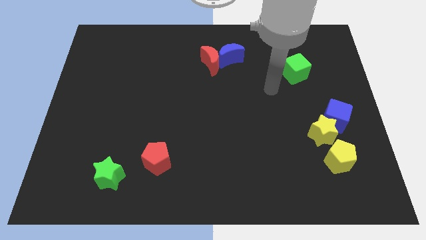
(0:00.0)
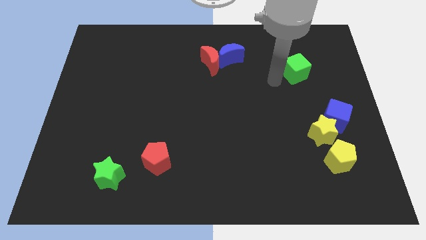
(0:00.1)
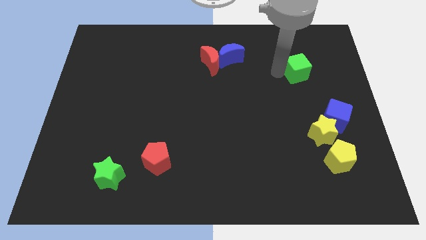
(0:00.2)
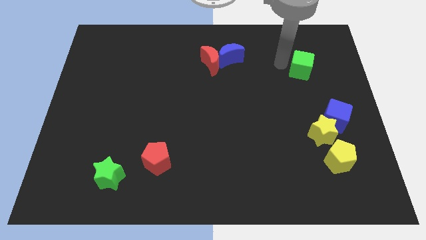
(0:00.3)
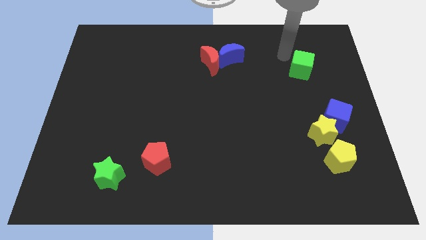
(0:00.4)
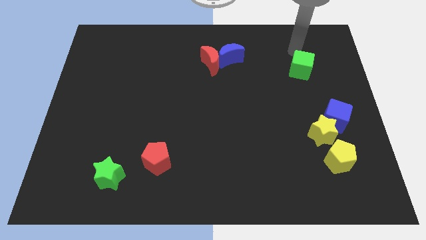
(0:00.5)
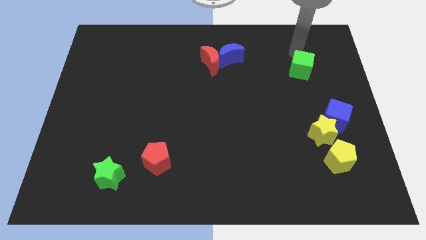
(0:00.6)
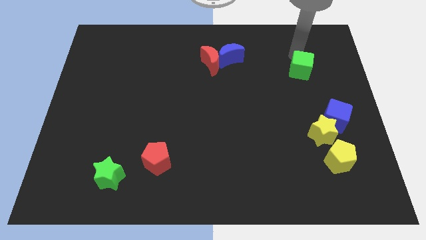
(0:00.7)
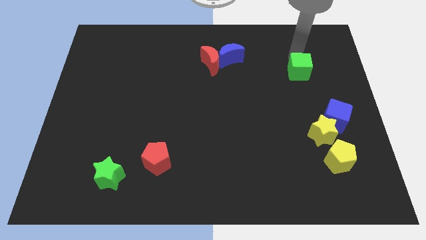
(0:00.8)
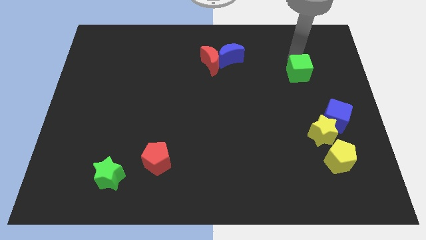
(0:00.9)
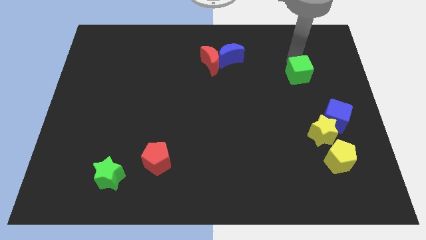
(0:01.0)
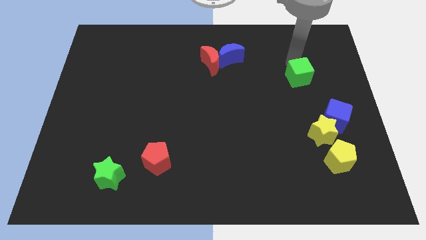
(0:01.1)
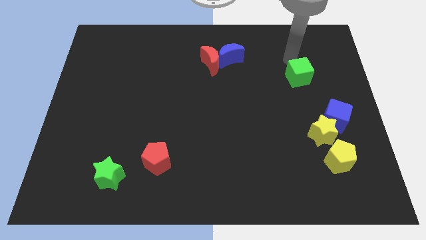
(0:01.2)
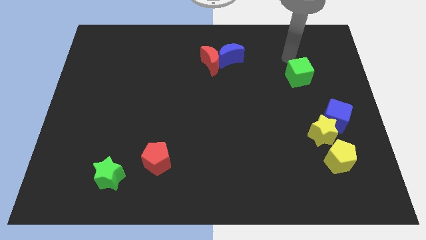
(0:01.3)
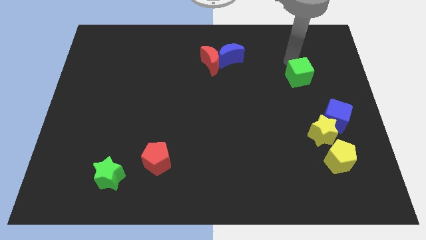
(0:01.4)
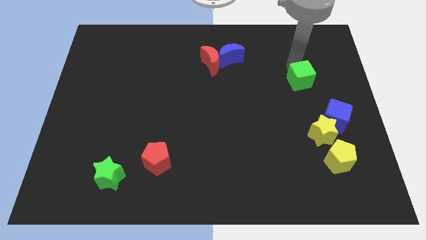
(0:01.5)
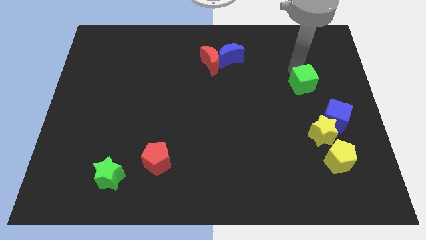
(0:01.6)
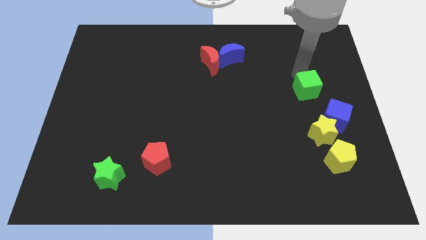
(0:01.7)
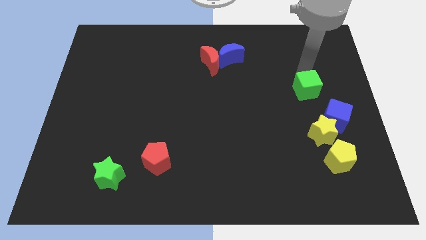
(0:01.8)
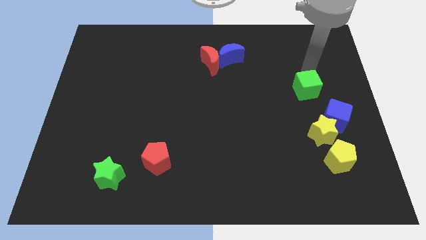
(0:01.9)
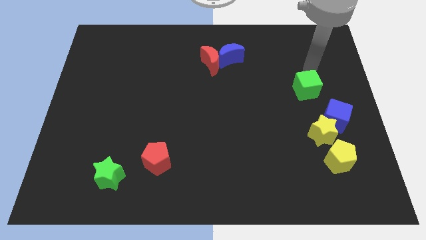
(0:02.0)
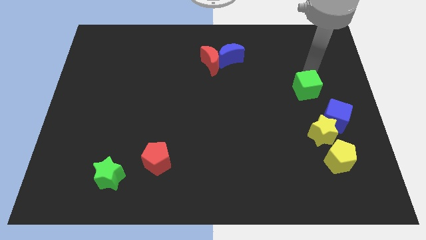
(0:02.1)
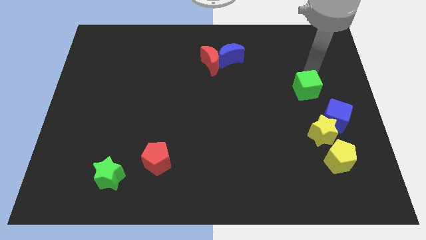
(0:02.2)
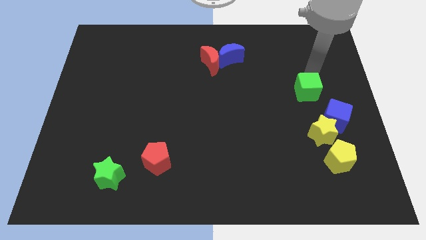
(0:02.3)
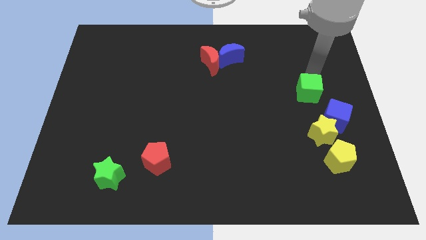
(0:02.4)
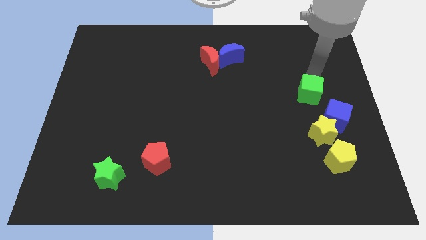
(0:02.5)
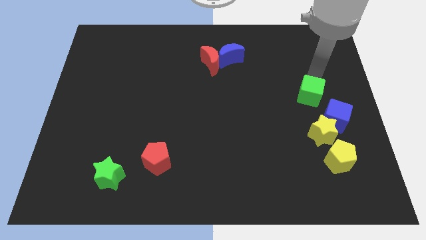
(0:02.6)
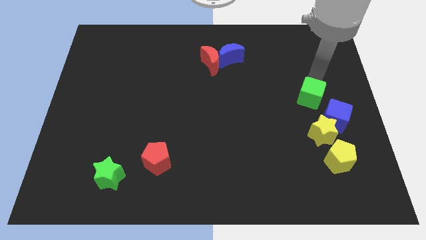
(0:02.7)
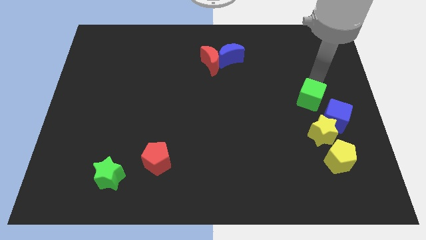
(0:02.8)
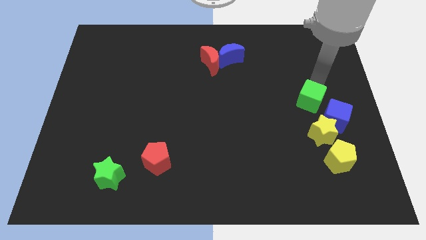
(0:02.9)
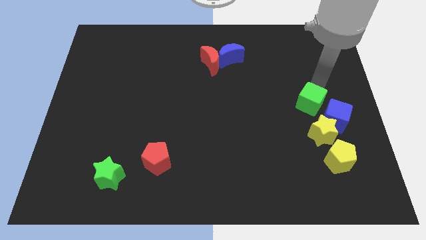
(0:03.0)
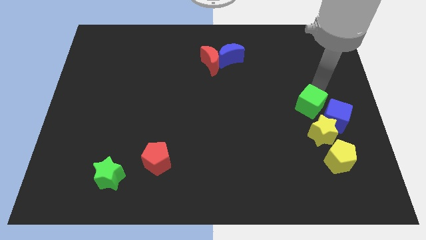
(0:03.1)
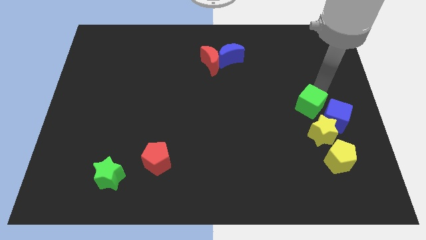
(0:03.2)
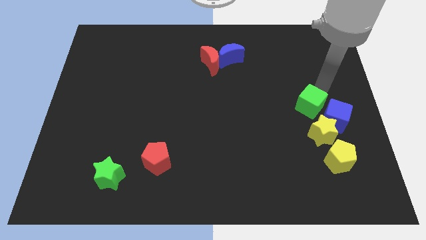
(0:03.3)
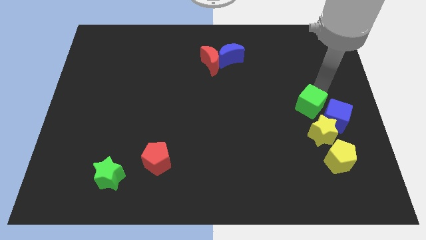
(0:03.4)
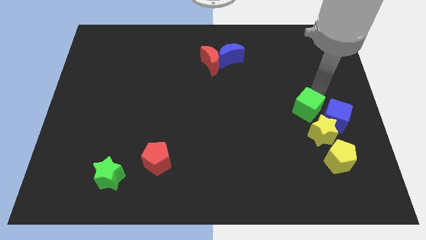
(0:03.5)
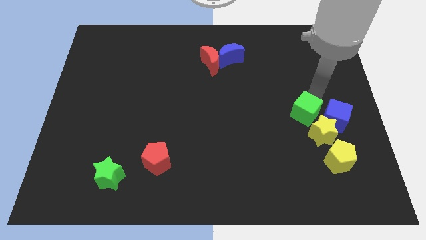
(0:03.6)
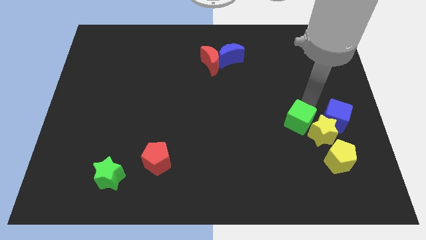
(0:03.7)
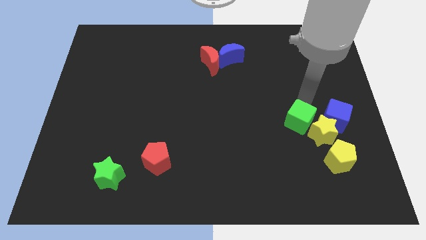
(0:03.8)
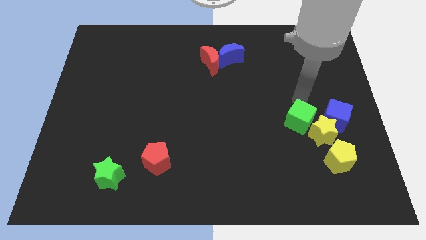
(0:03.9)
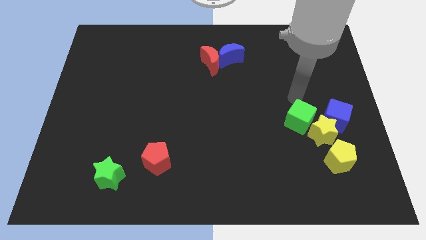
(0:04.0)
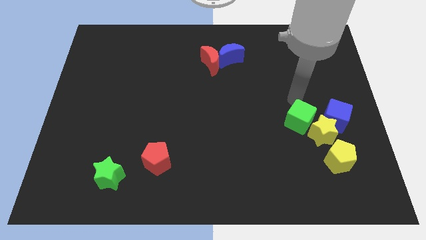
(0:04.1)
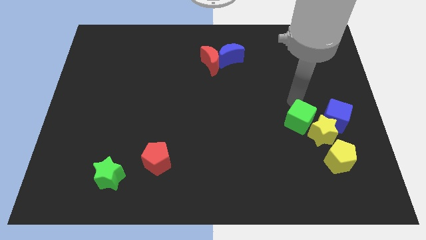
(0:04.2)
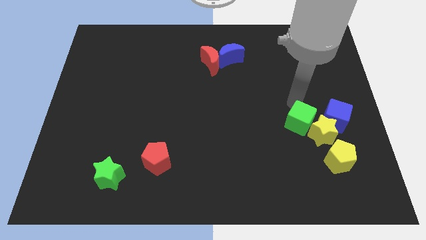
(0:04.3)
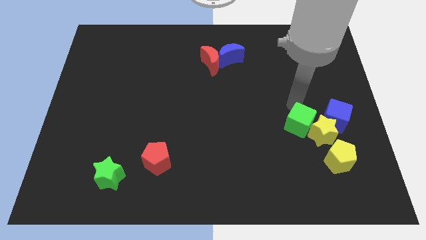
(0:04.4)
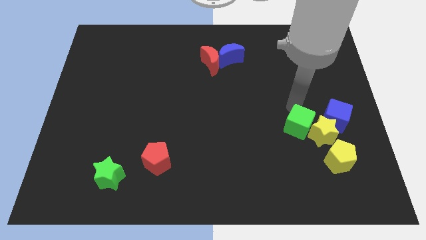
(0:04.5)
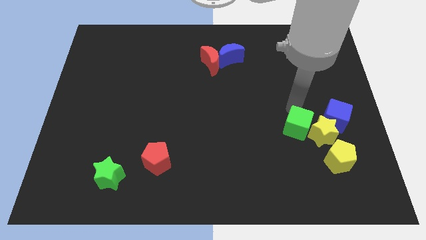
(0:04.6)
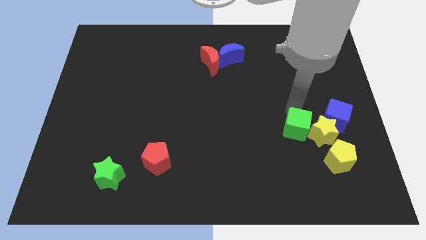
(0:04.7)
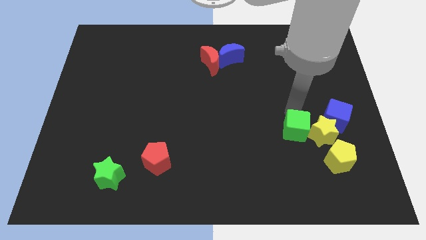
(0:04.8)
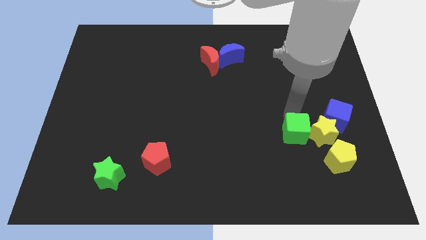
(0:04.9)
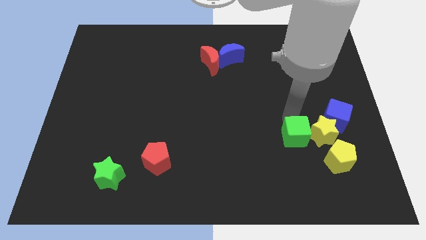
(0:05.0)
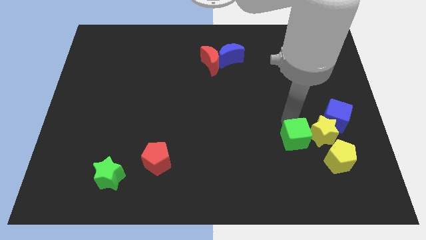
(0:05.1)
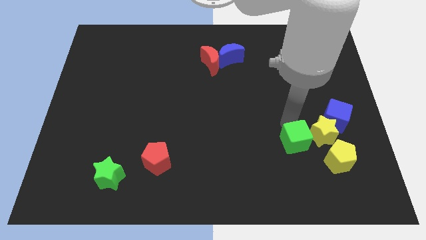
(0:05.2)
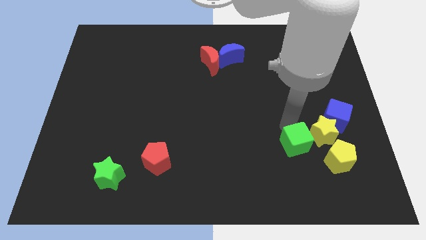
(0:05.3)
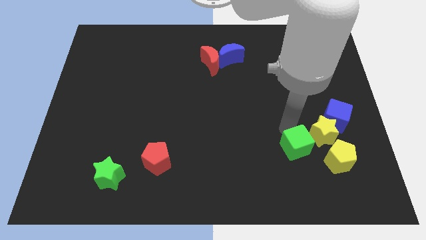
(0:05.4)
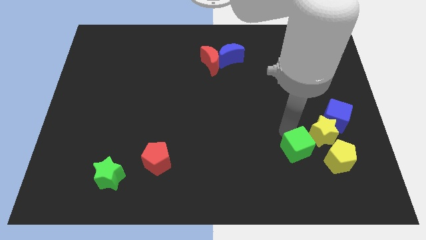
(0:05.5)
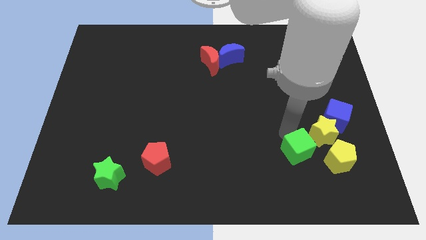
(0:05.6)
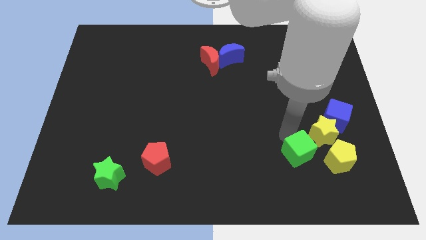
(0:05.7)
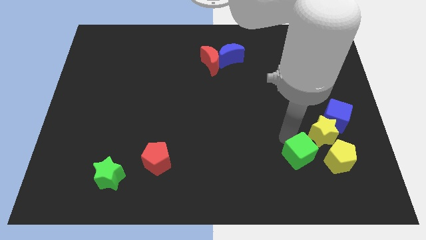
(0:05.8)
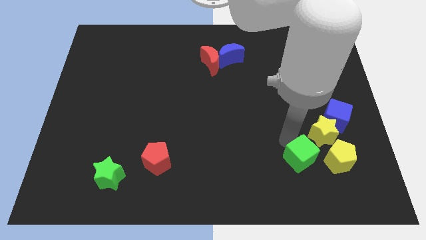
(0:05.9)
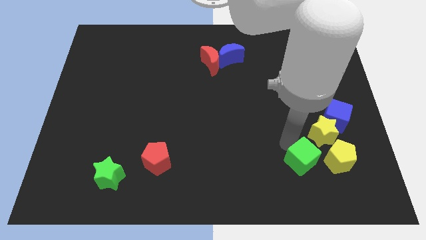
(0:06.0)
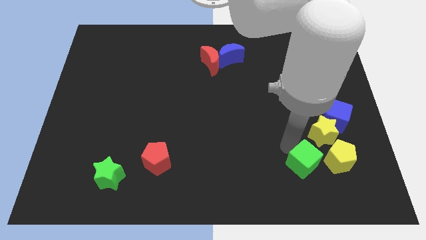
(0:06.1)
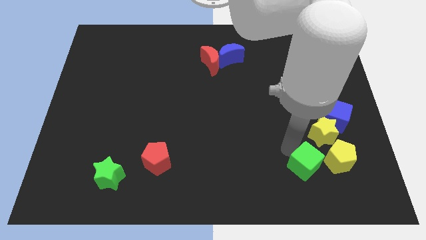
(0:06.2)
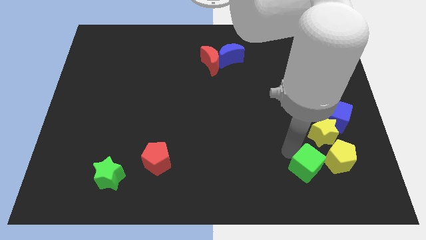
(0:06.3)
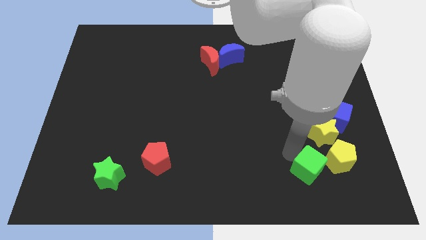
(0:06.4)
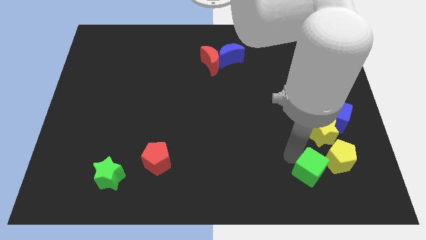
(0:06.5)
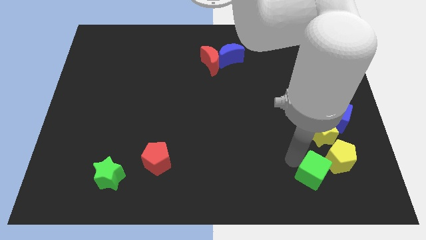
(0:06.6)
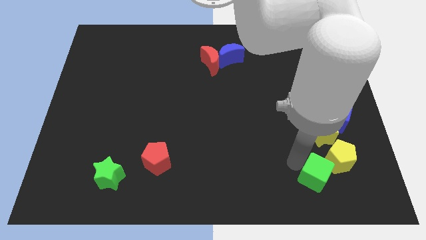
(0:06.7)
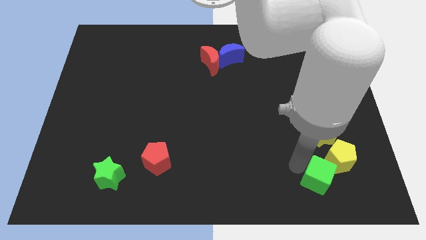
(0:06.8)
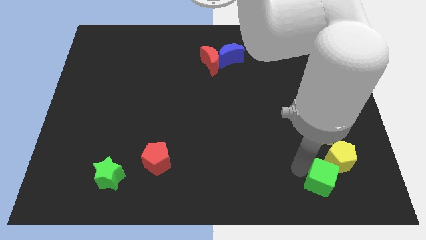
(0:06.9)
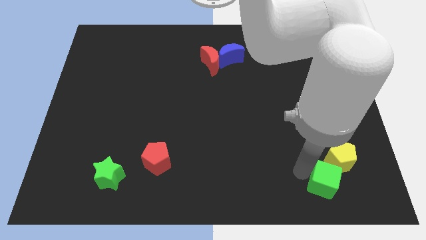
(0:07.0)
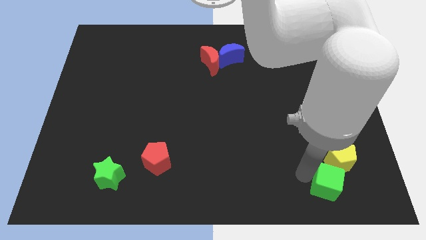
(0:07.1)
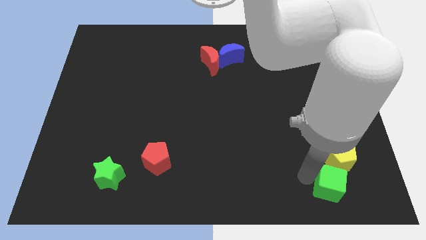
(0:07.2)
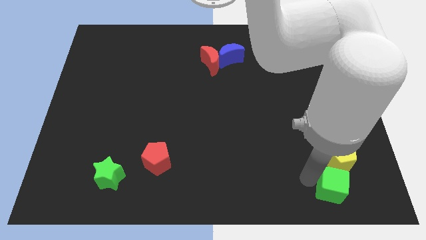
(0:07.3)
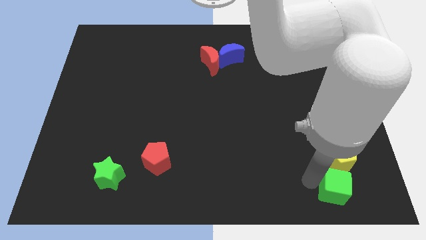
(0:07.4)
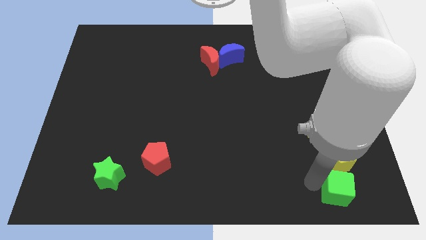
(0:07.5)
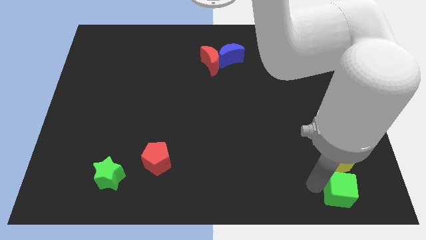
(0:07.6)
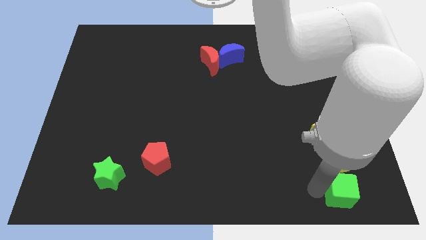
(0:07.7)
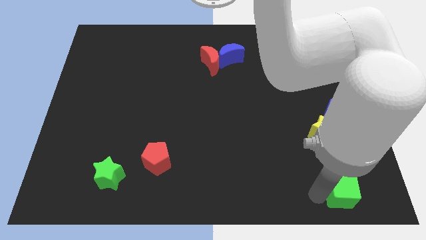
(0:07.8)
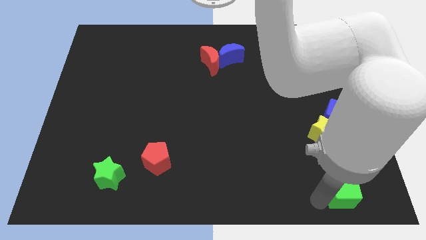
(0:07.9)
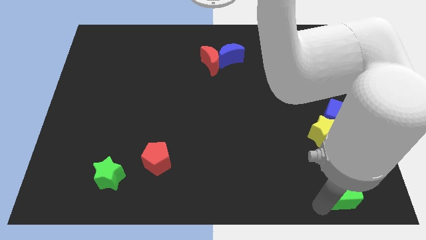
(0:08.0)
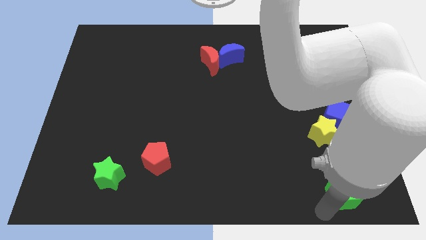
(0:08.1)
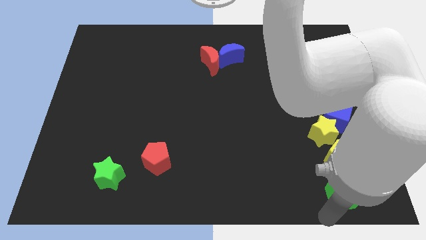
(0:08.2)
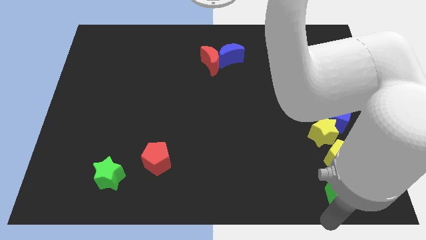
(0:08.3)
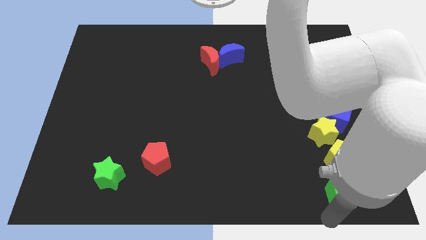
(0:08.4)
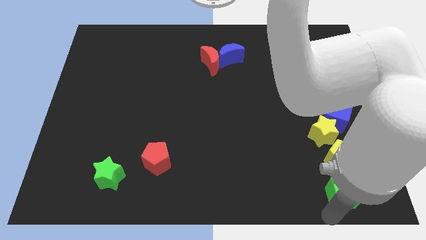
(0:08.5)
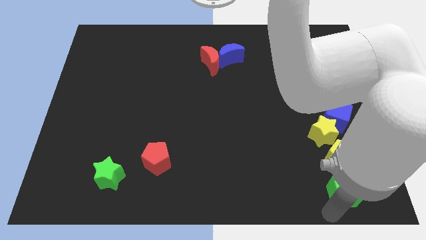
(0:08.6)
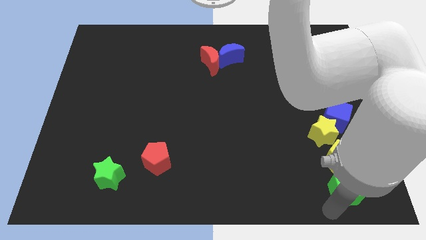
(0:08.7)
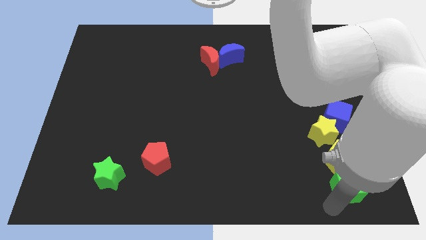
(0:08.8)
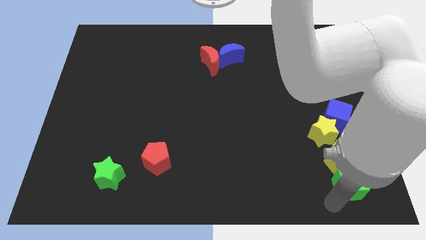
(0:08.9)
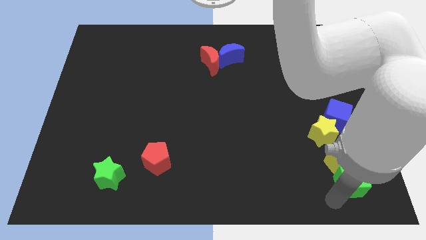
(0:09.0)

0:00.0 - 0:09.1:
put the green cube to the bottom of the blue cube
